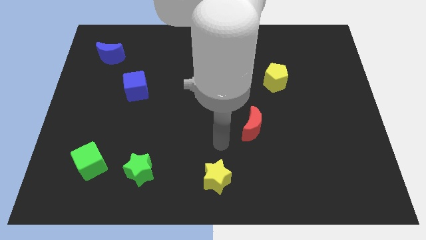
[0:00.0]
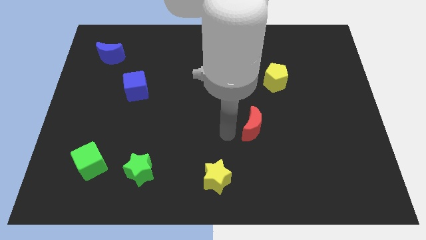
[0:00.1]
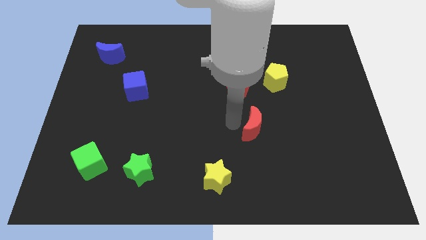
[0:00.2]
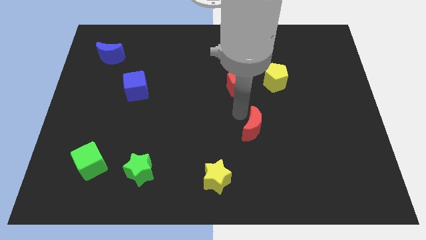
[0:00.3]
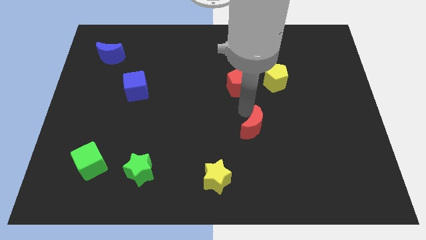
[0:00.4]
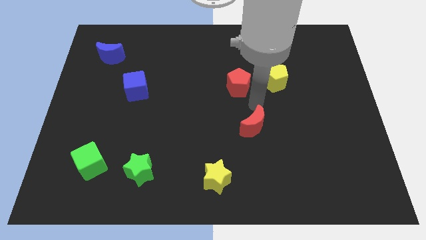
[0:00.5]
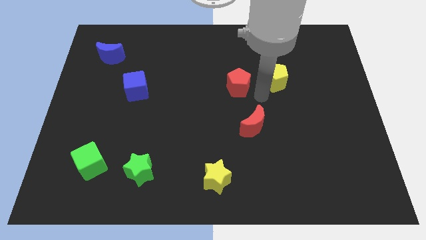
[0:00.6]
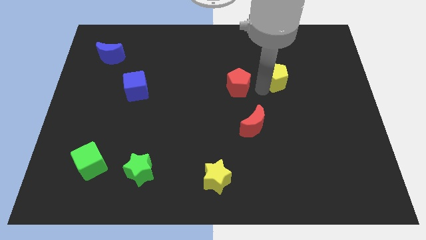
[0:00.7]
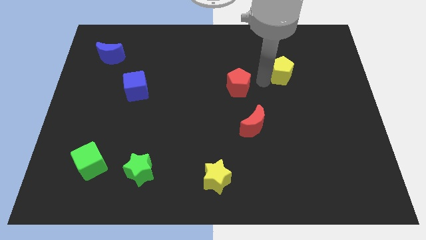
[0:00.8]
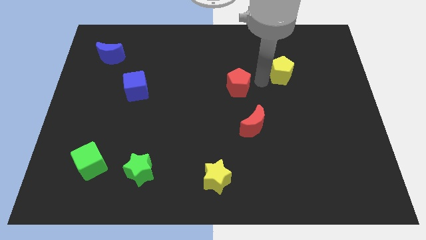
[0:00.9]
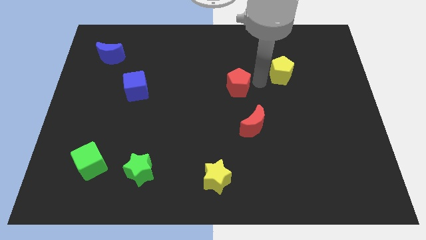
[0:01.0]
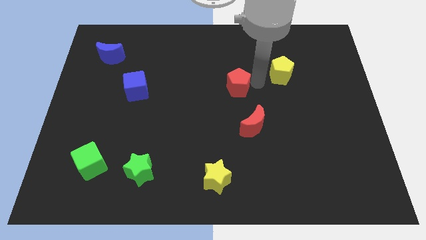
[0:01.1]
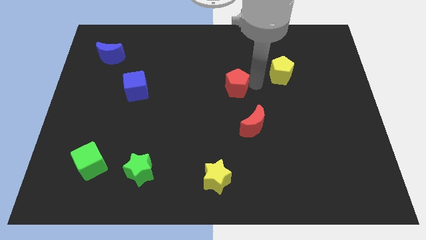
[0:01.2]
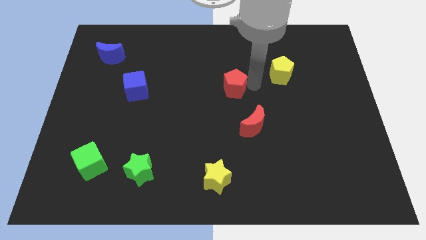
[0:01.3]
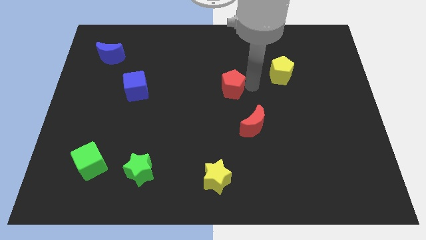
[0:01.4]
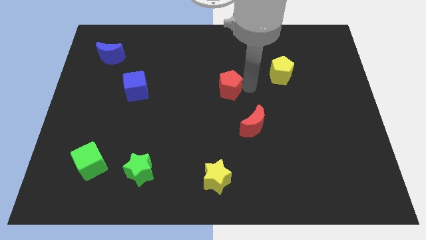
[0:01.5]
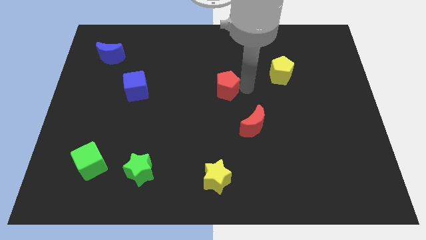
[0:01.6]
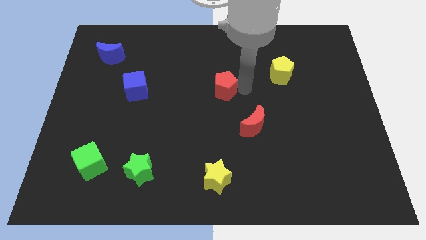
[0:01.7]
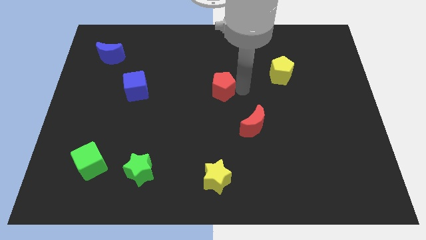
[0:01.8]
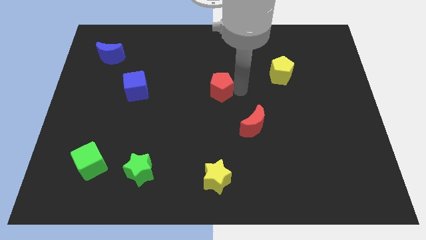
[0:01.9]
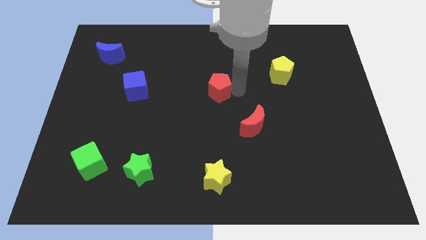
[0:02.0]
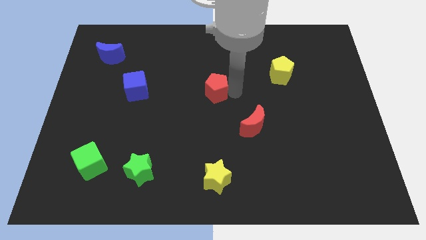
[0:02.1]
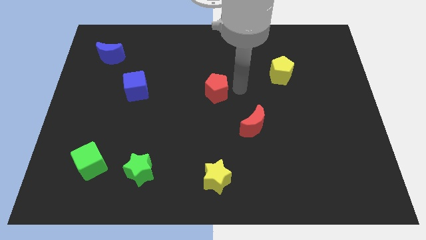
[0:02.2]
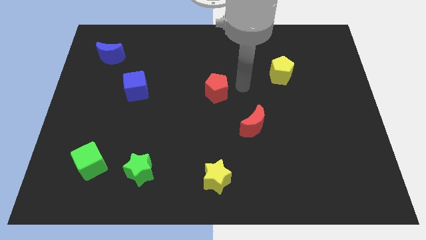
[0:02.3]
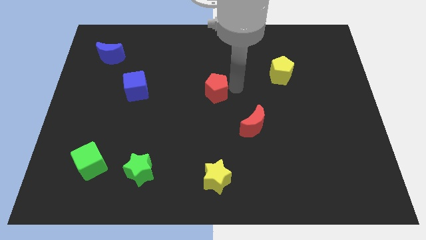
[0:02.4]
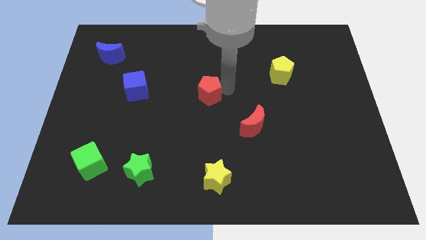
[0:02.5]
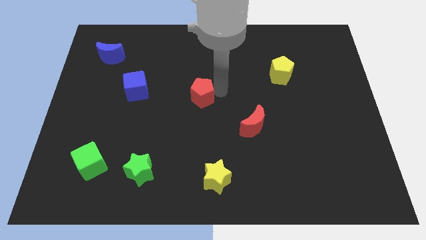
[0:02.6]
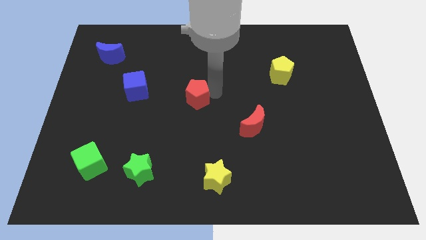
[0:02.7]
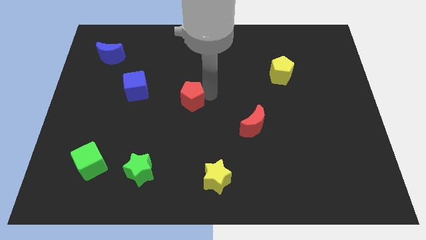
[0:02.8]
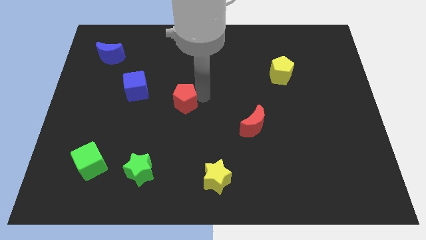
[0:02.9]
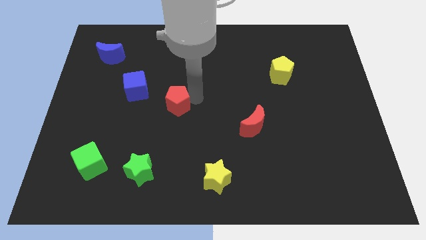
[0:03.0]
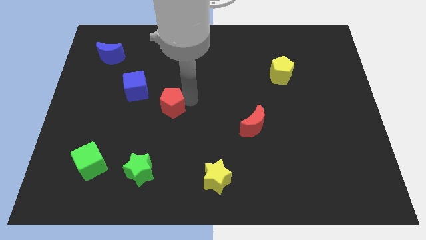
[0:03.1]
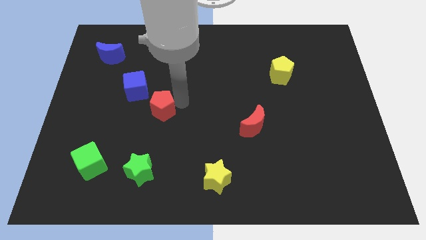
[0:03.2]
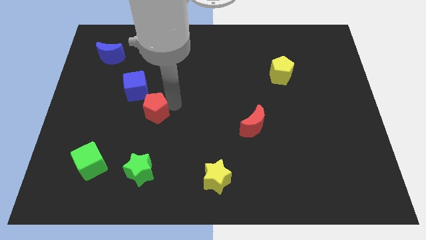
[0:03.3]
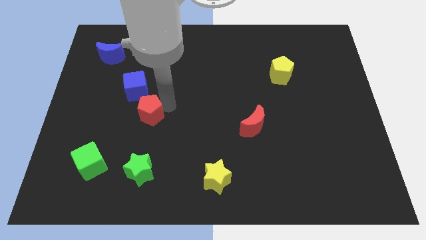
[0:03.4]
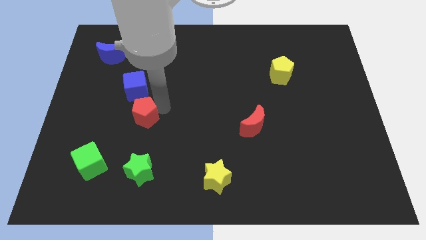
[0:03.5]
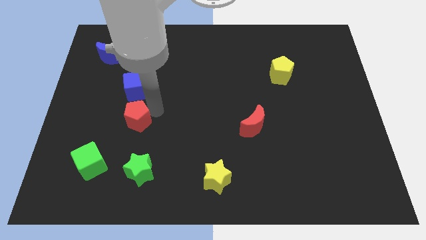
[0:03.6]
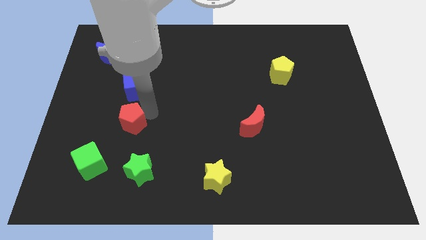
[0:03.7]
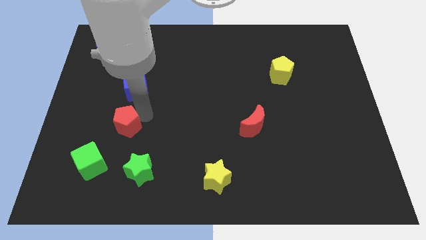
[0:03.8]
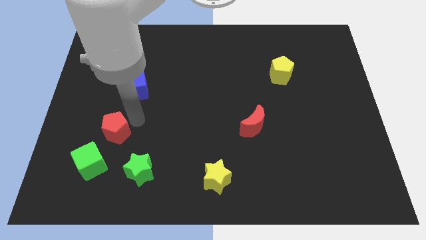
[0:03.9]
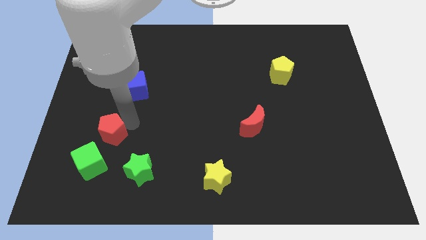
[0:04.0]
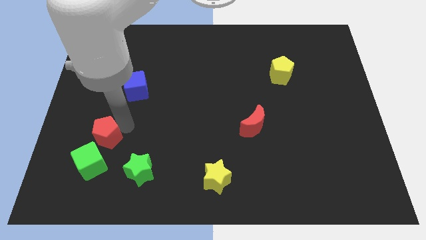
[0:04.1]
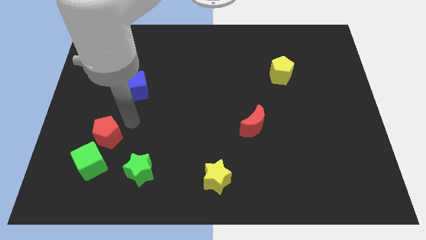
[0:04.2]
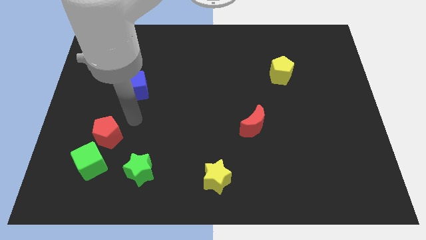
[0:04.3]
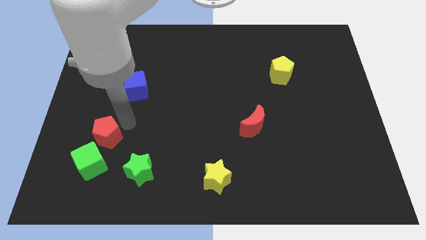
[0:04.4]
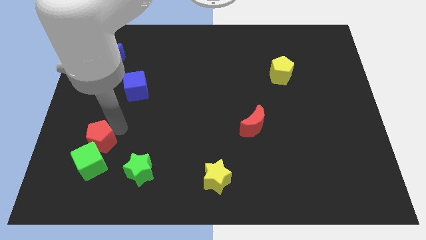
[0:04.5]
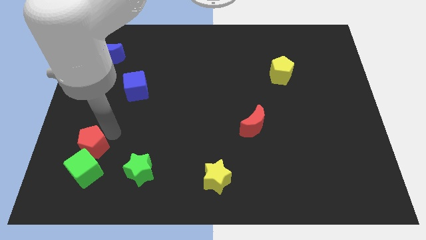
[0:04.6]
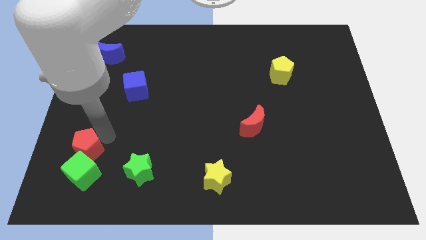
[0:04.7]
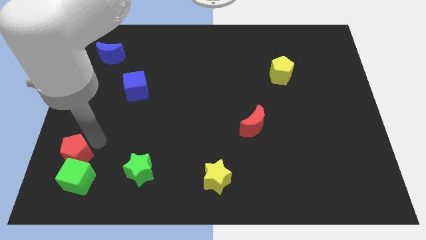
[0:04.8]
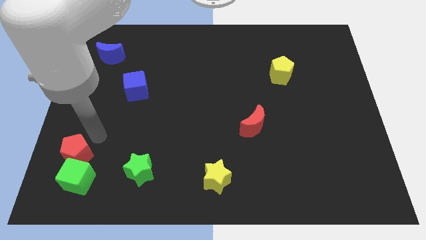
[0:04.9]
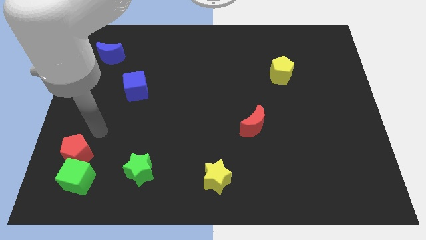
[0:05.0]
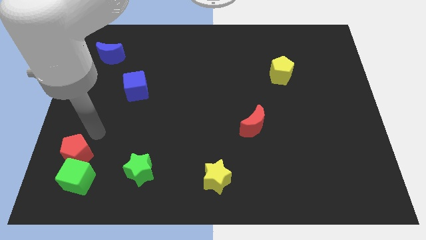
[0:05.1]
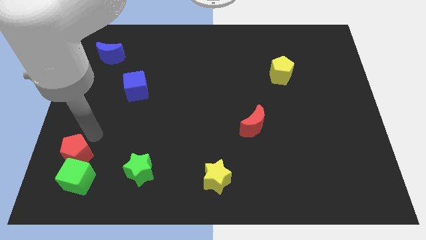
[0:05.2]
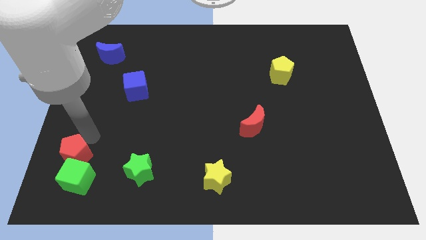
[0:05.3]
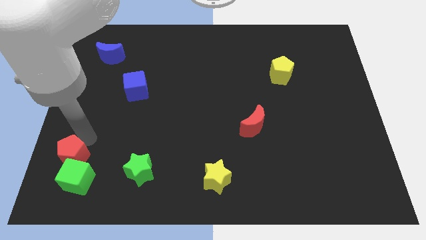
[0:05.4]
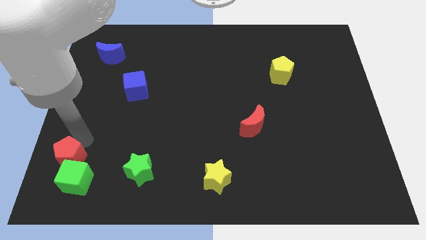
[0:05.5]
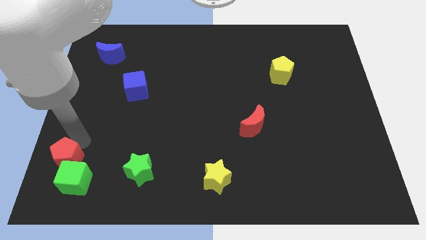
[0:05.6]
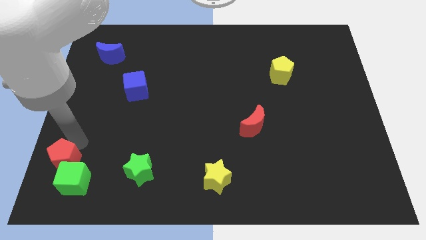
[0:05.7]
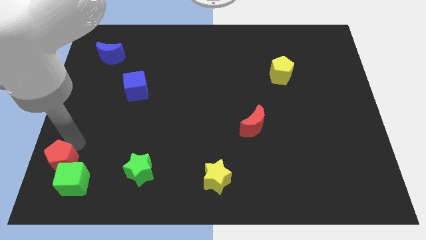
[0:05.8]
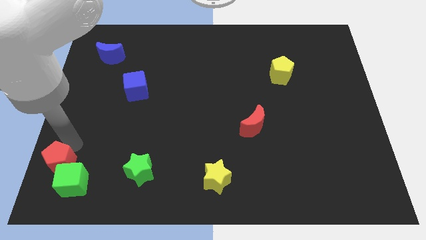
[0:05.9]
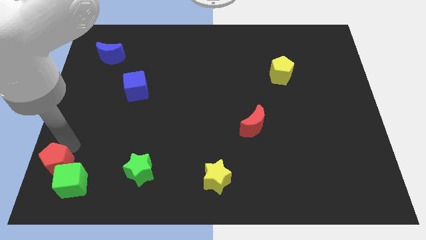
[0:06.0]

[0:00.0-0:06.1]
put the red pentagon to the bottom left
